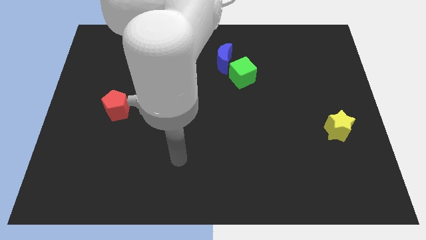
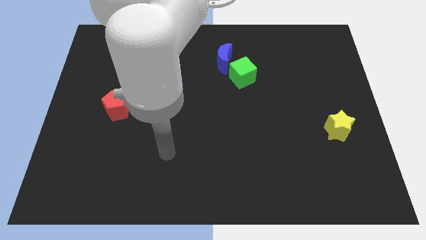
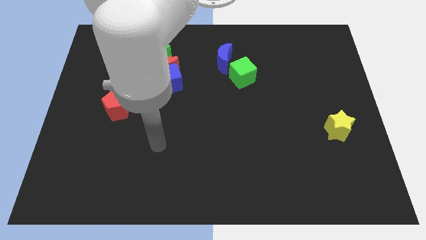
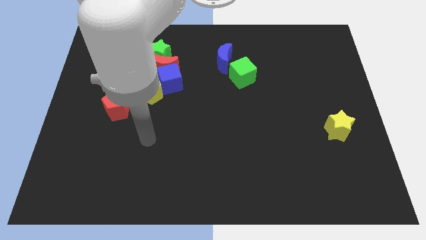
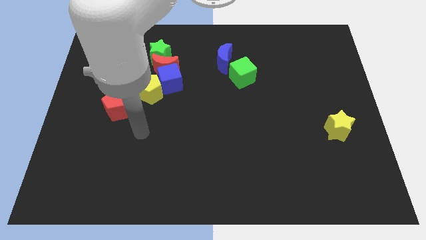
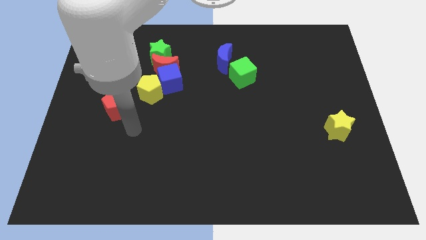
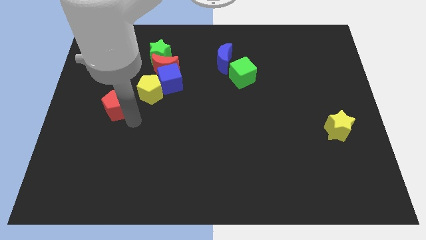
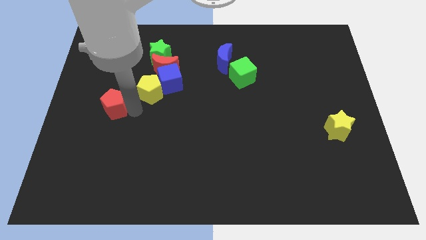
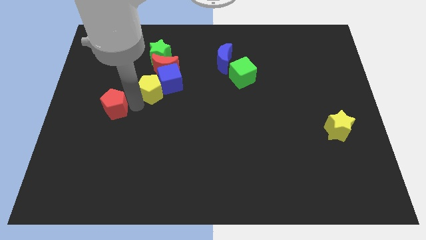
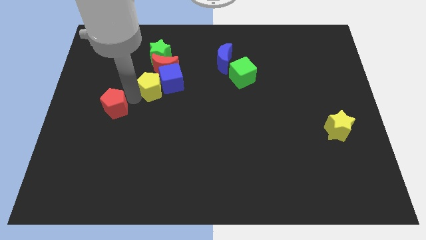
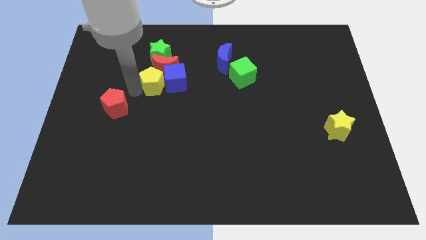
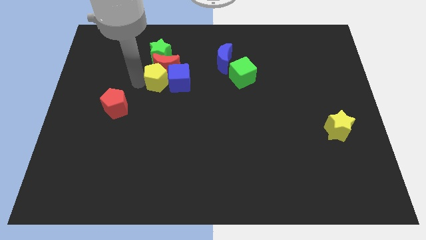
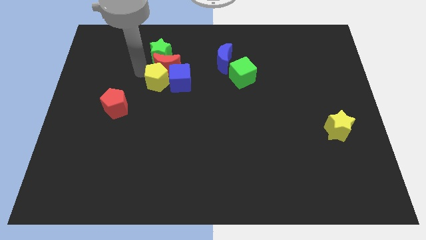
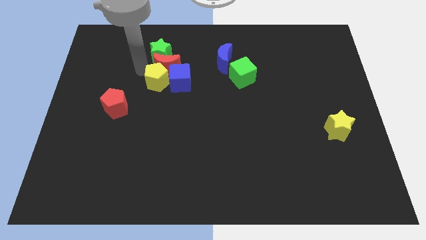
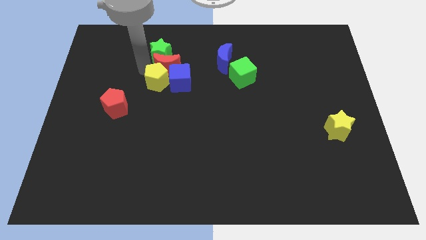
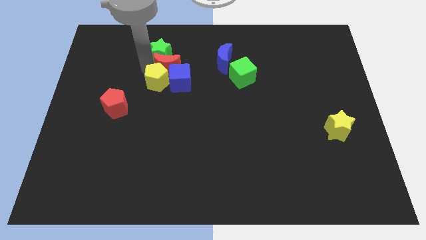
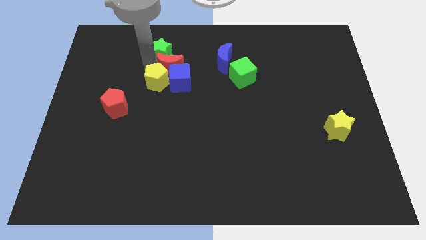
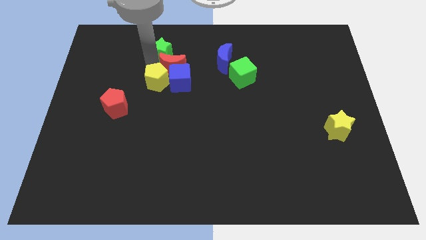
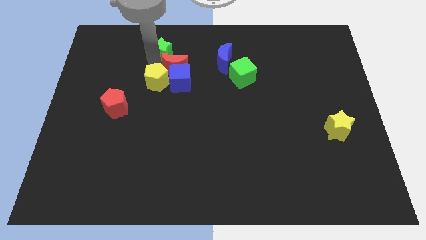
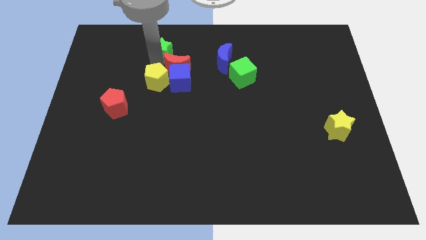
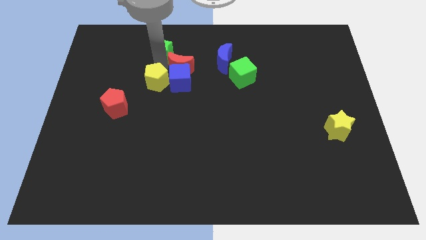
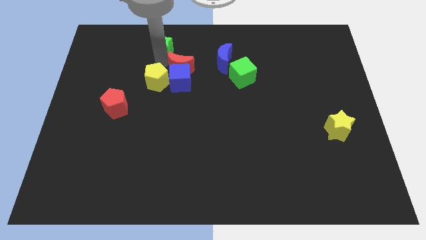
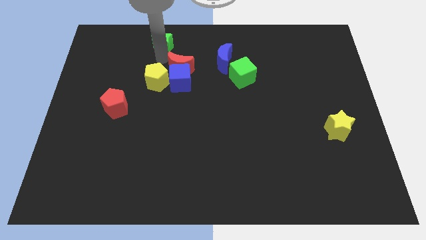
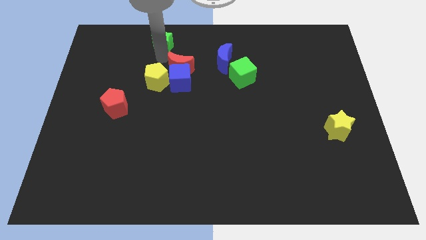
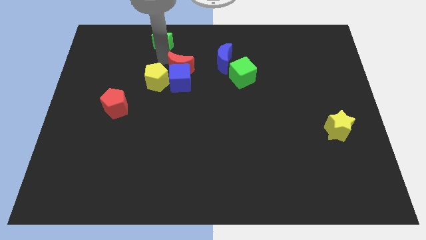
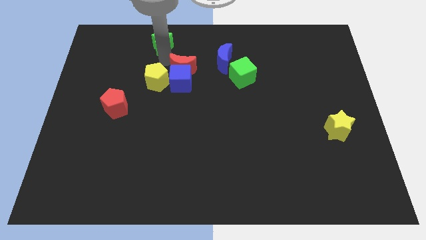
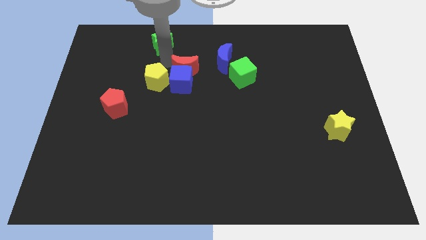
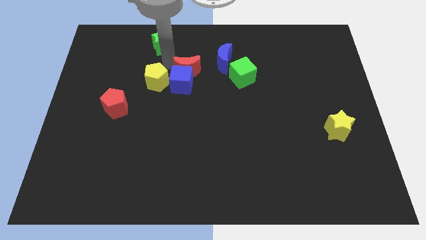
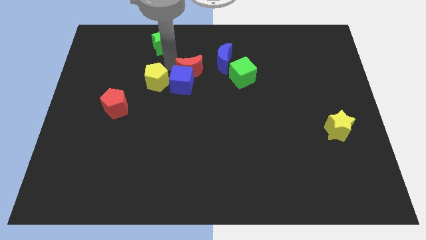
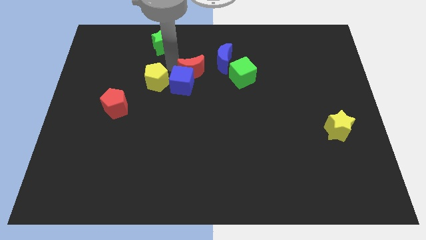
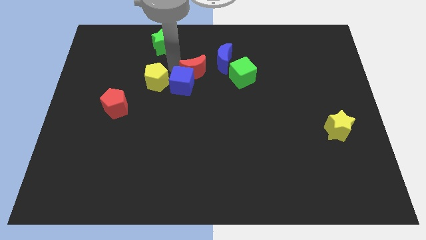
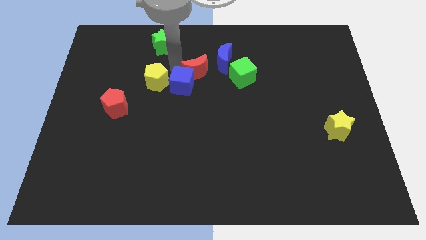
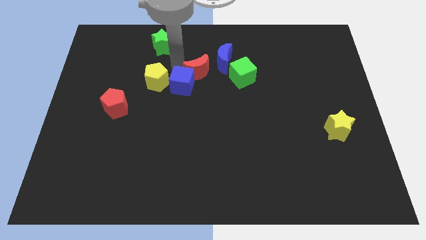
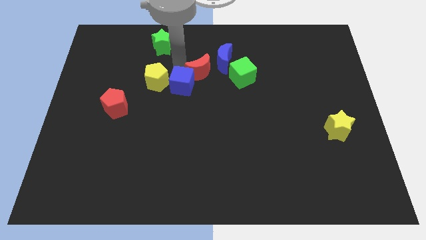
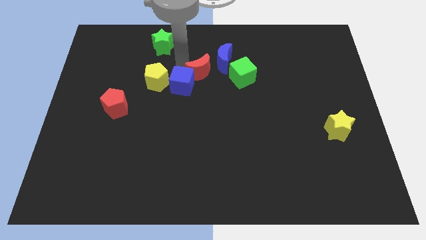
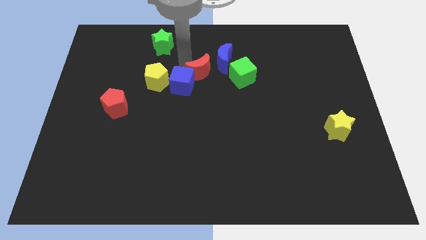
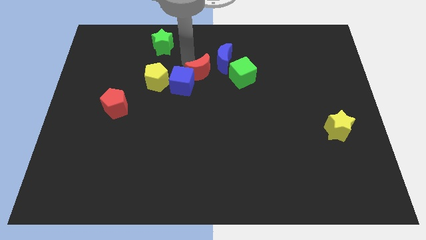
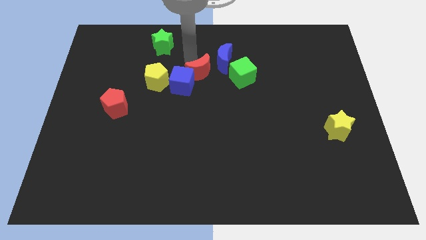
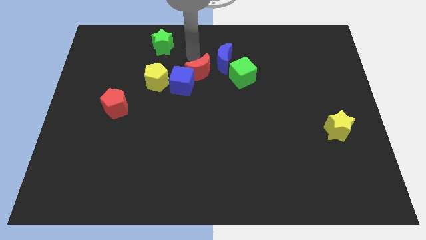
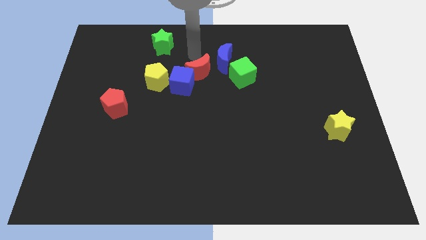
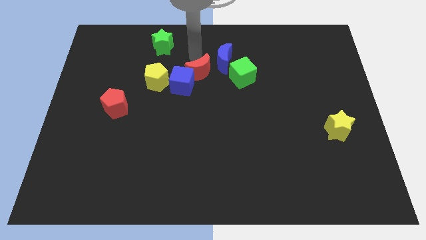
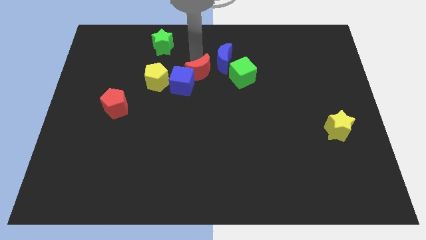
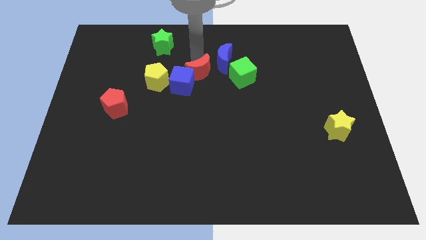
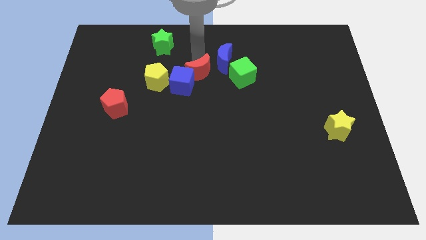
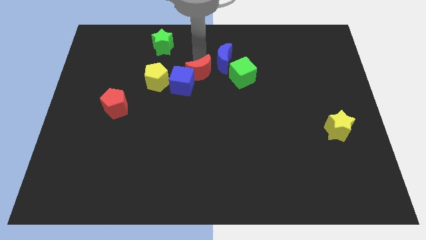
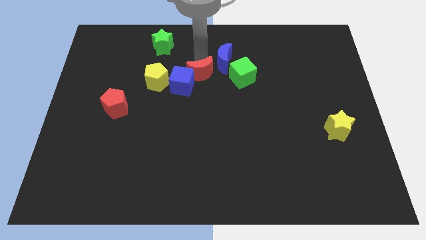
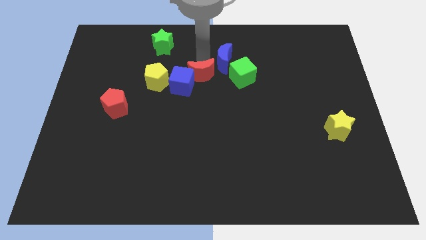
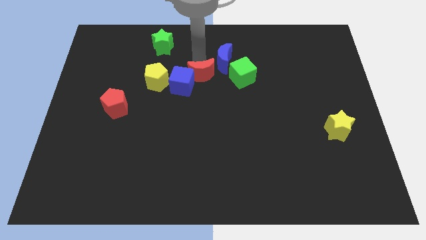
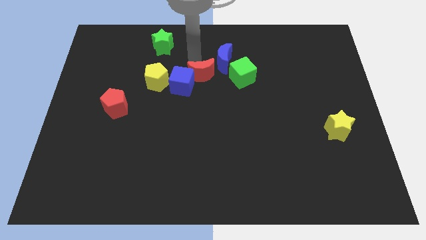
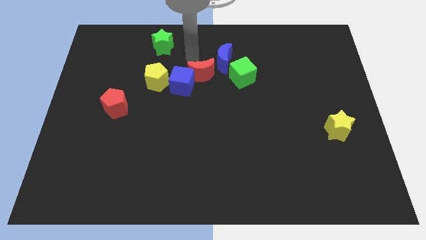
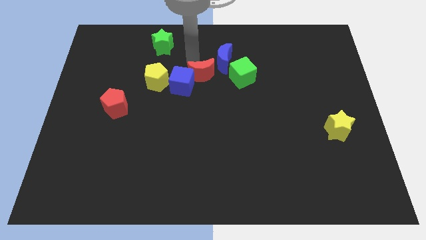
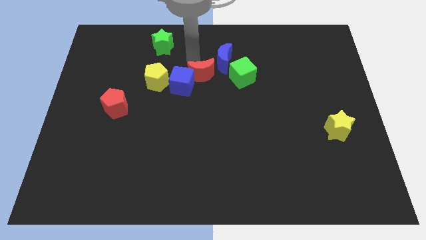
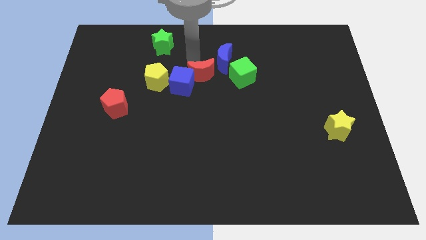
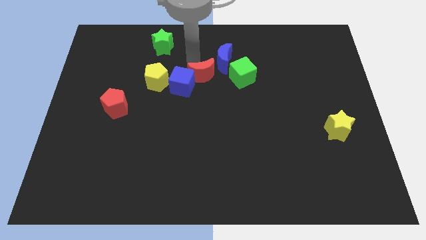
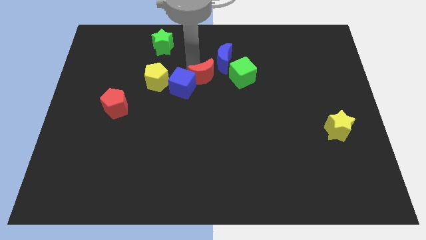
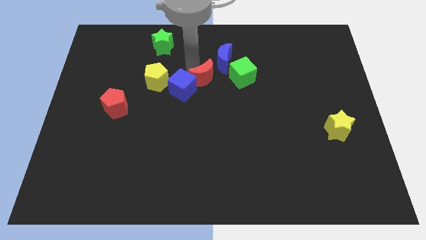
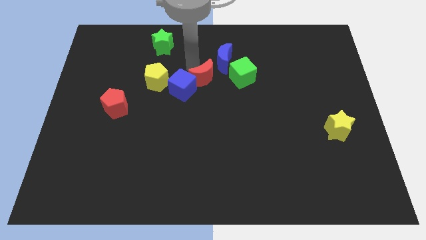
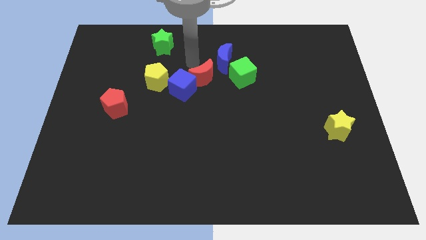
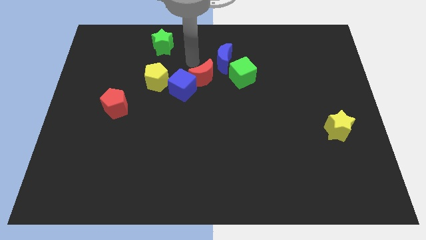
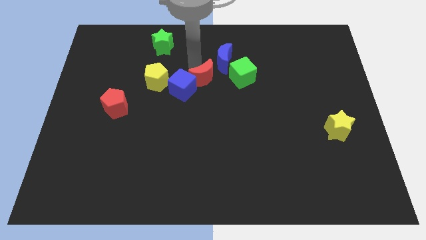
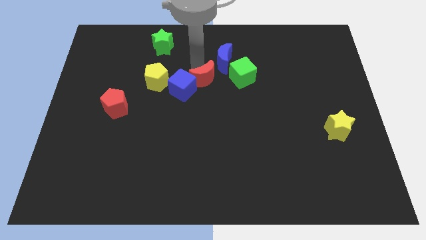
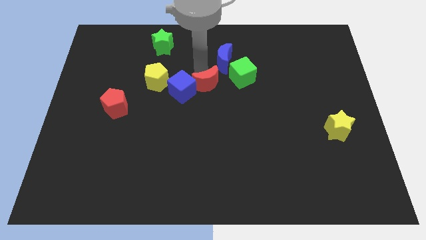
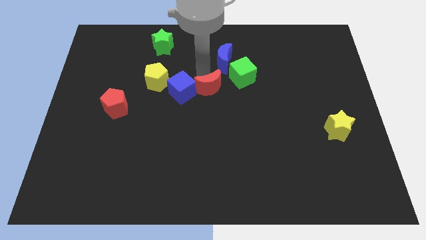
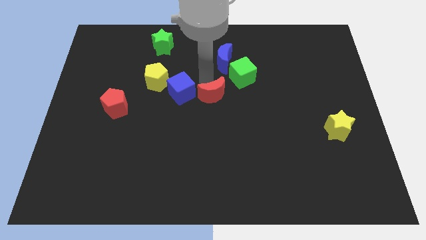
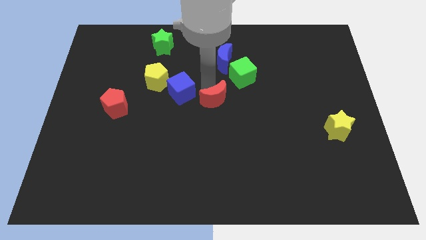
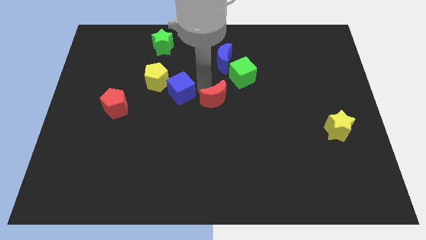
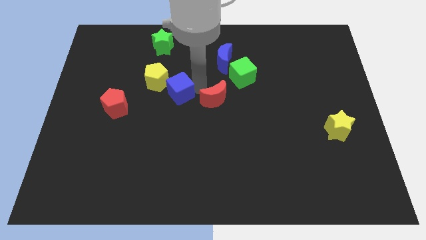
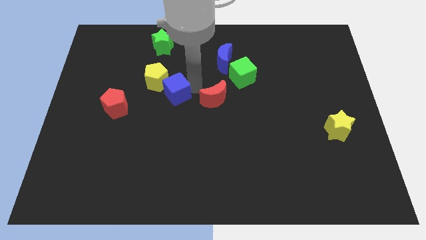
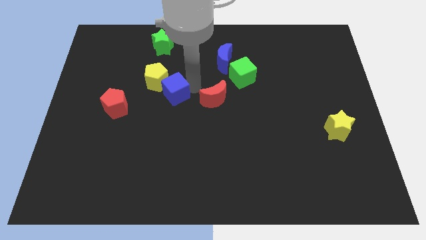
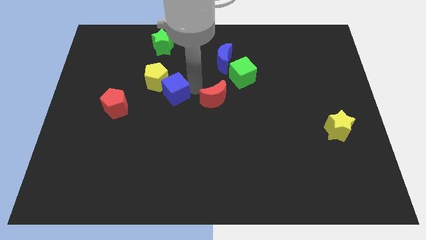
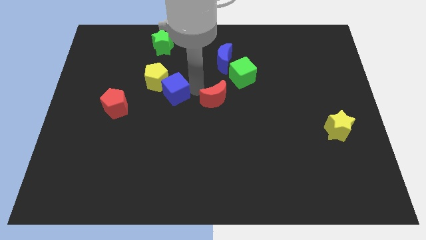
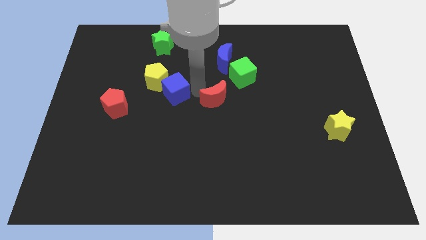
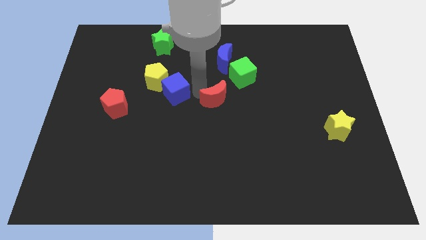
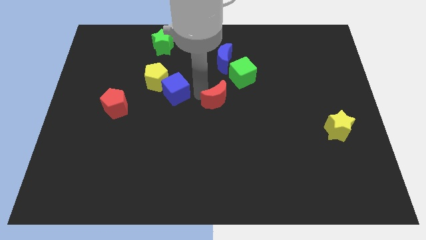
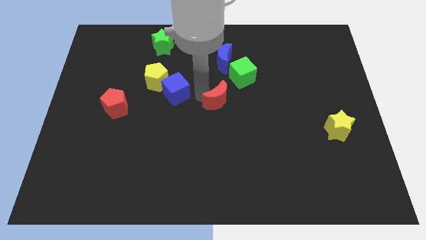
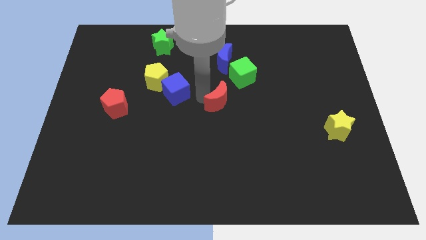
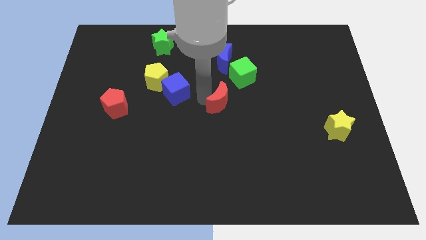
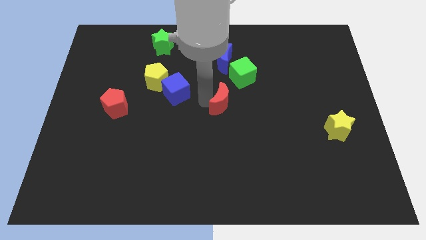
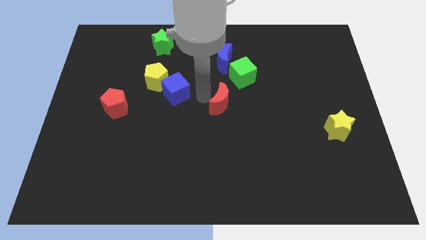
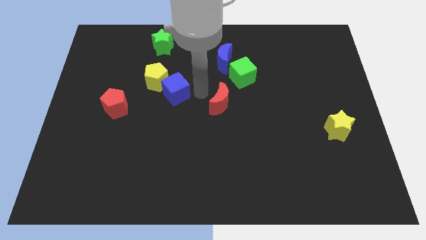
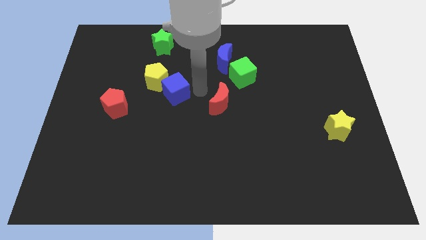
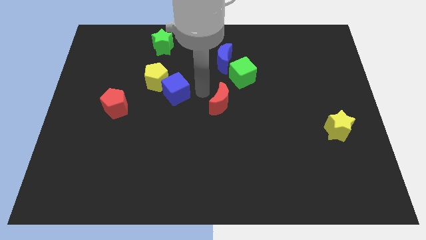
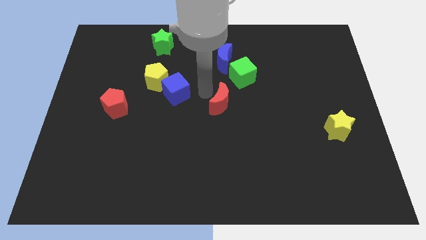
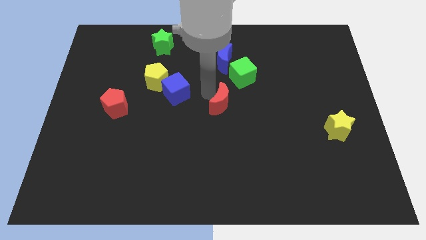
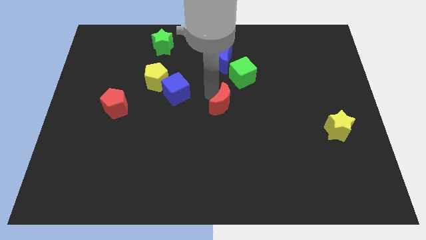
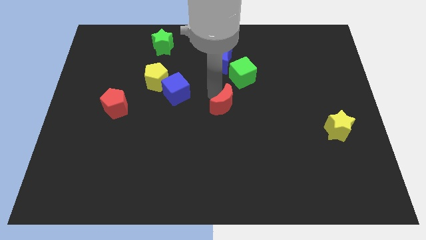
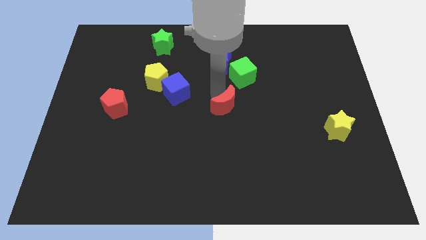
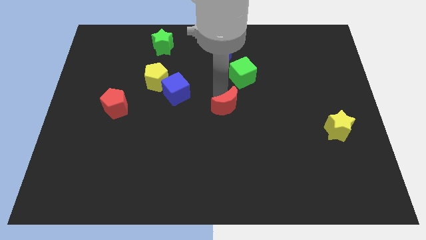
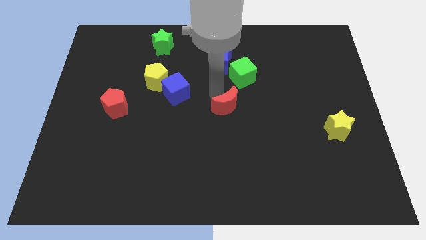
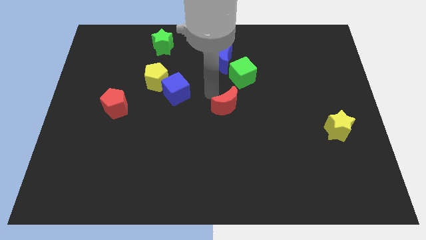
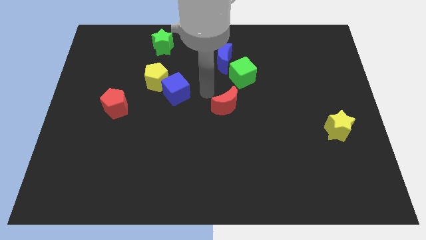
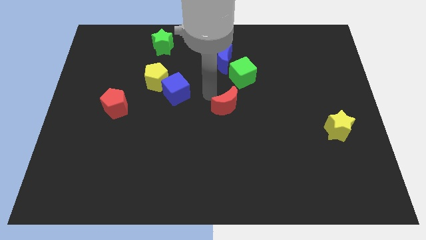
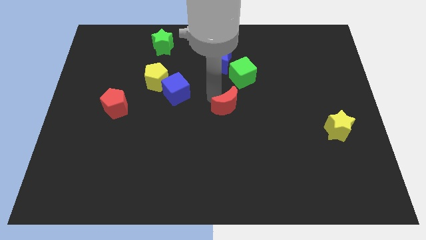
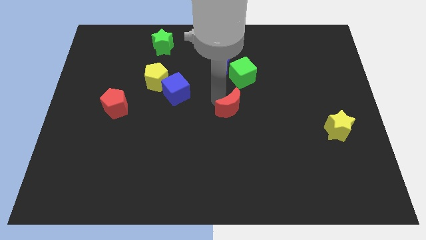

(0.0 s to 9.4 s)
push the red moon diagonally down and to the right
